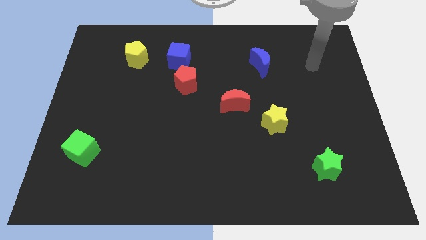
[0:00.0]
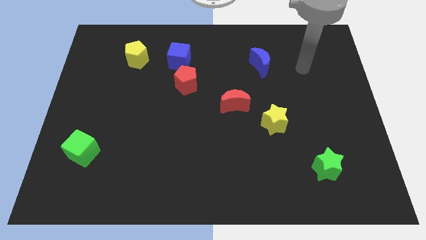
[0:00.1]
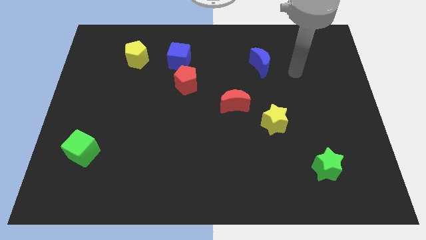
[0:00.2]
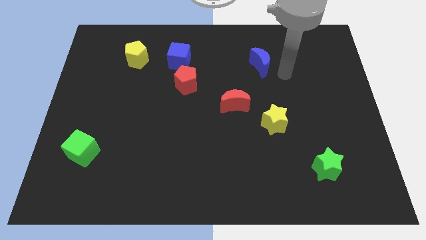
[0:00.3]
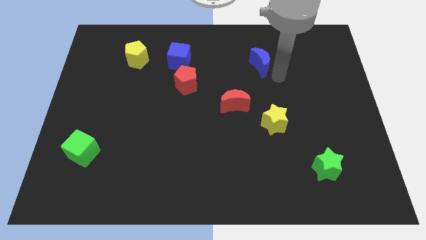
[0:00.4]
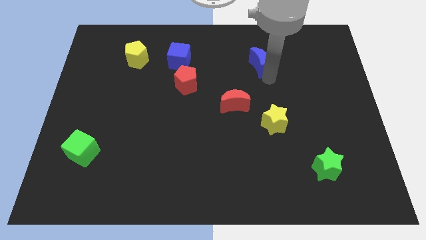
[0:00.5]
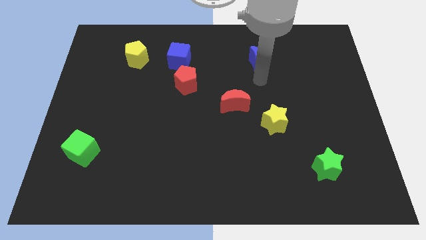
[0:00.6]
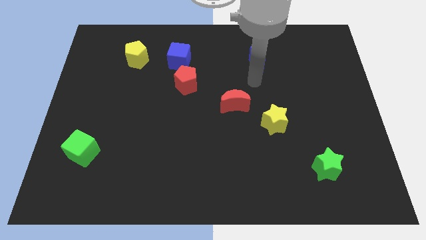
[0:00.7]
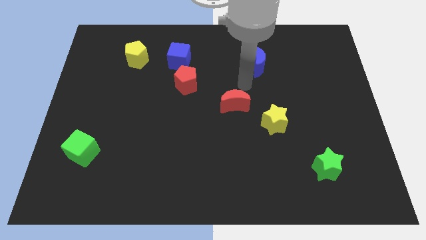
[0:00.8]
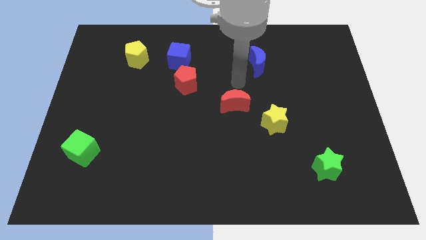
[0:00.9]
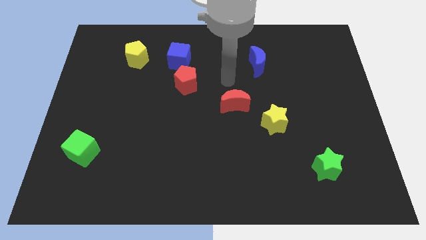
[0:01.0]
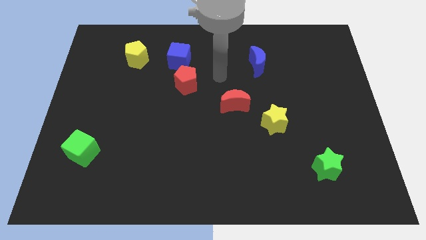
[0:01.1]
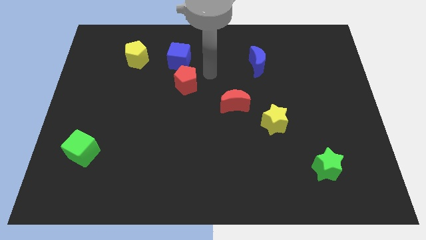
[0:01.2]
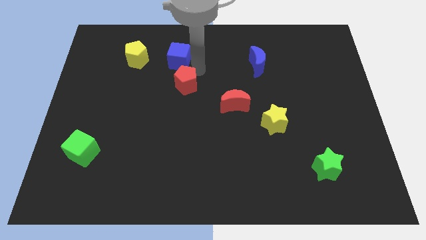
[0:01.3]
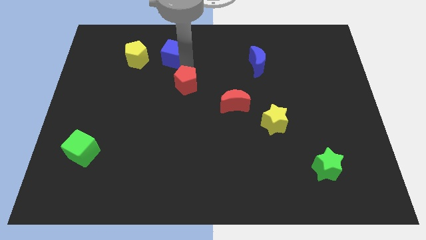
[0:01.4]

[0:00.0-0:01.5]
pull the red pentagon apart from the blue cube

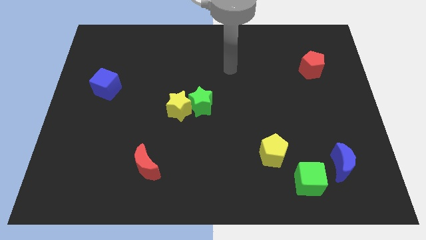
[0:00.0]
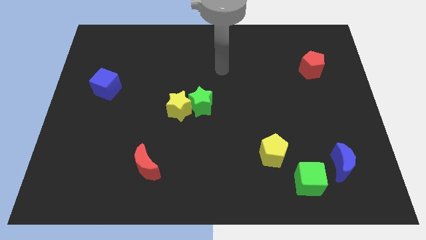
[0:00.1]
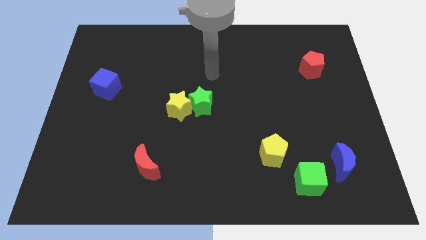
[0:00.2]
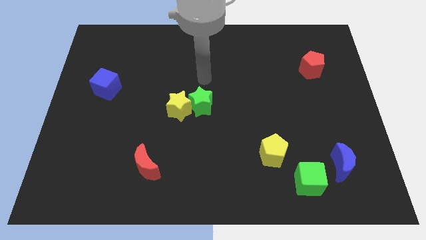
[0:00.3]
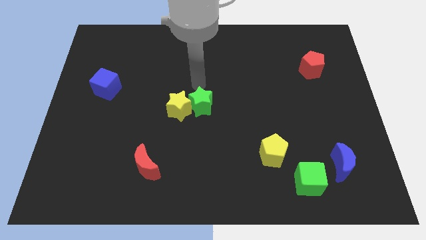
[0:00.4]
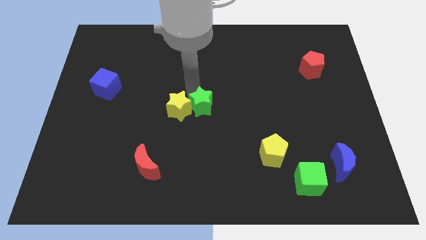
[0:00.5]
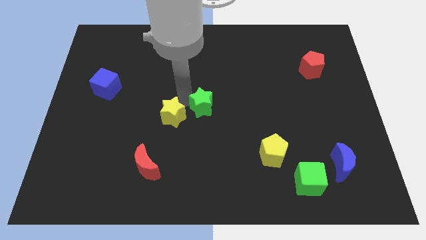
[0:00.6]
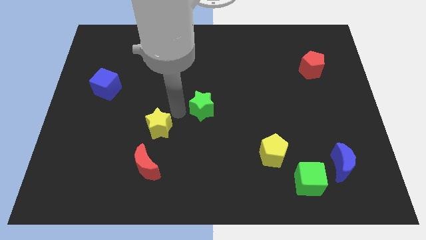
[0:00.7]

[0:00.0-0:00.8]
move the green star away from the yellow star

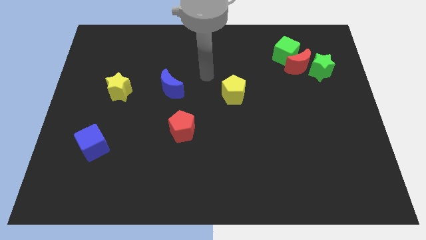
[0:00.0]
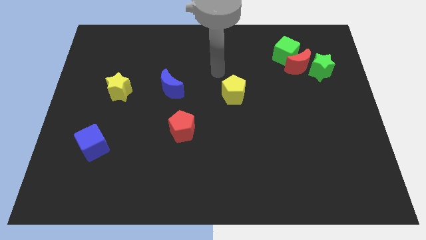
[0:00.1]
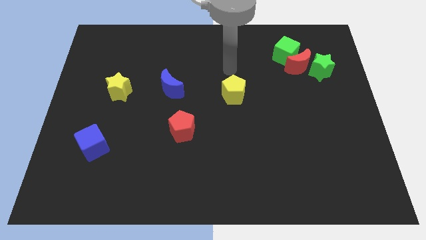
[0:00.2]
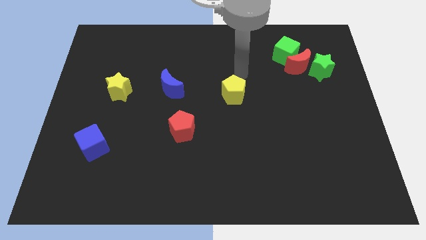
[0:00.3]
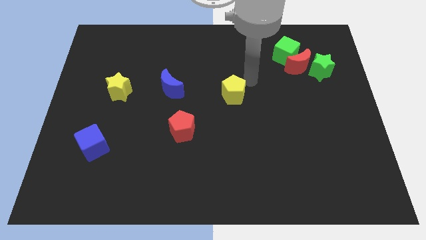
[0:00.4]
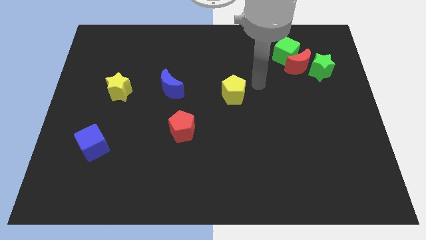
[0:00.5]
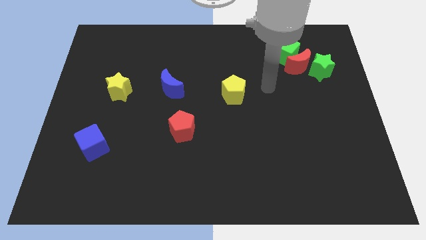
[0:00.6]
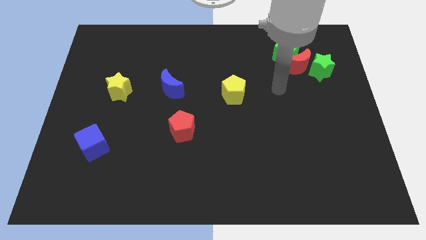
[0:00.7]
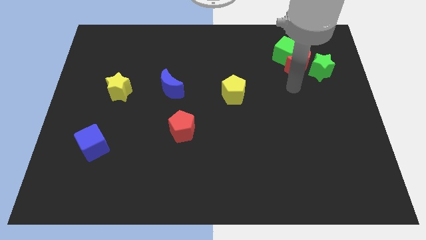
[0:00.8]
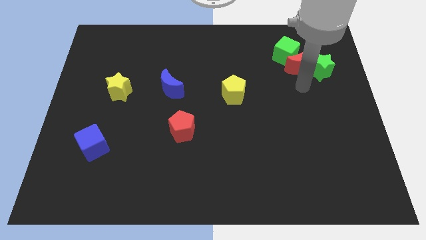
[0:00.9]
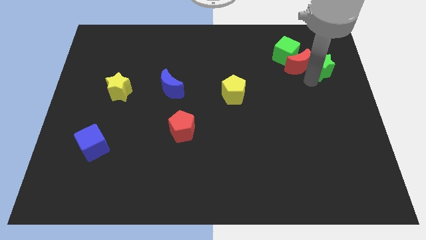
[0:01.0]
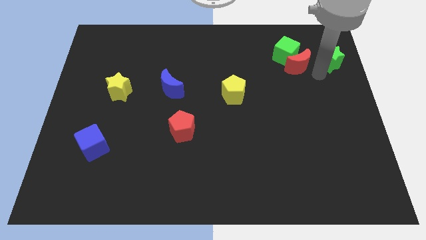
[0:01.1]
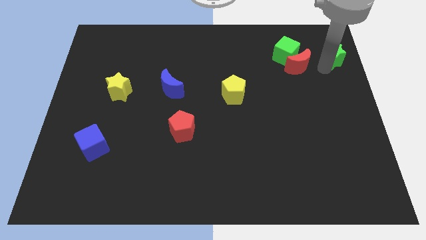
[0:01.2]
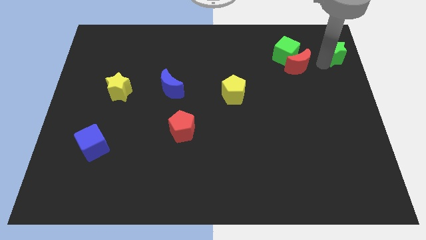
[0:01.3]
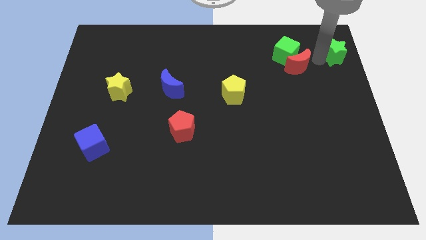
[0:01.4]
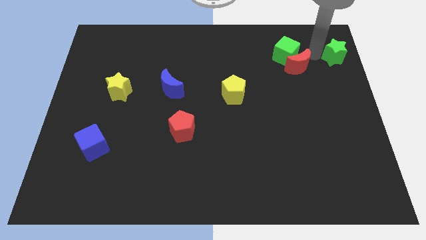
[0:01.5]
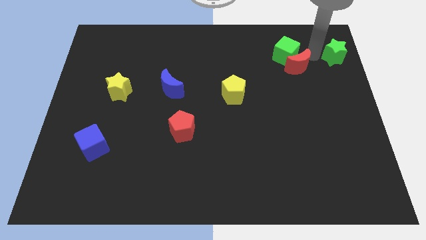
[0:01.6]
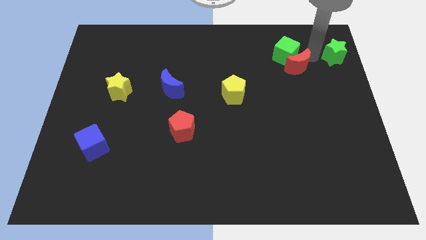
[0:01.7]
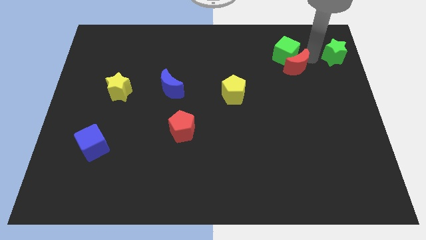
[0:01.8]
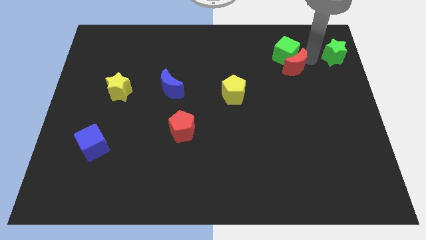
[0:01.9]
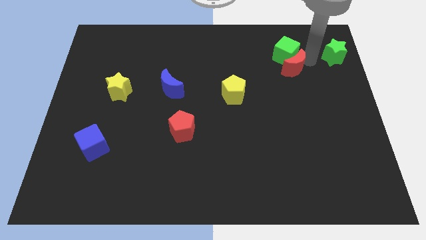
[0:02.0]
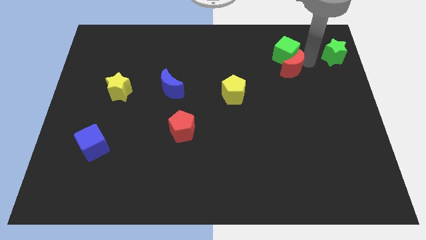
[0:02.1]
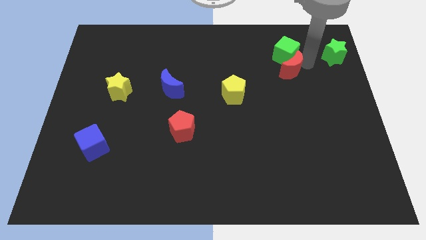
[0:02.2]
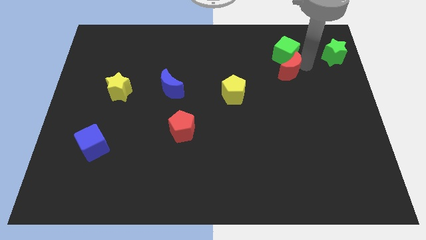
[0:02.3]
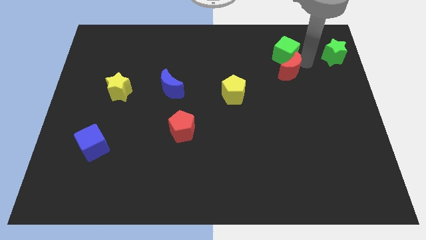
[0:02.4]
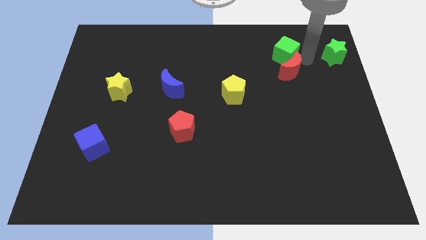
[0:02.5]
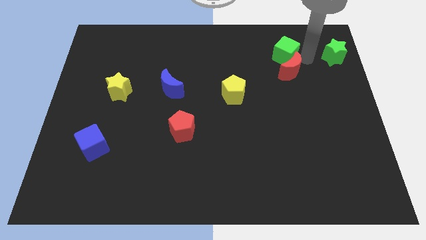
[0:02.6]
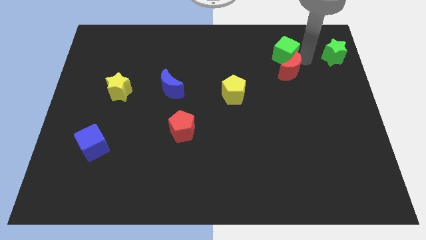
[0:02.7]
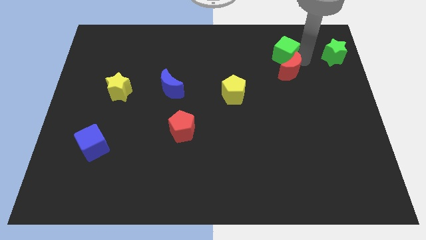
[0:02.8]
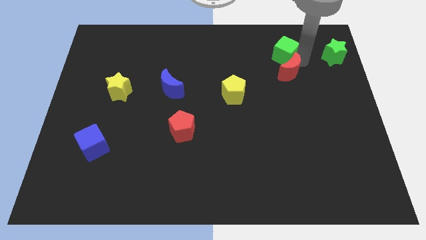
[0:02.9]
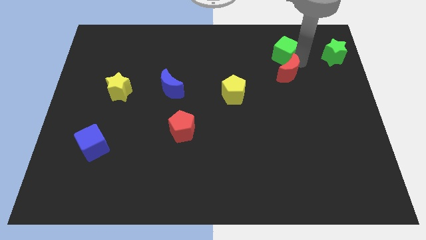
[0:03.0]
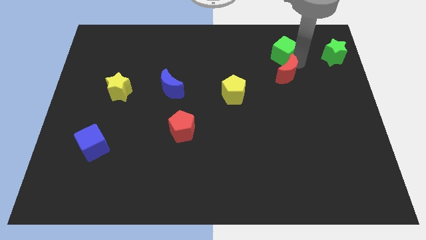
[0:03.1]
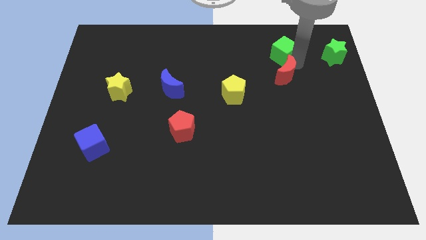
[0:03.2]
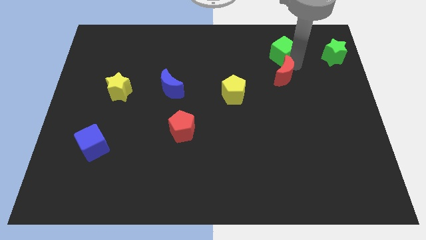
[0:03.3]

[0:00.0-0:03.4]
pull the red moon apart from the green cube and green star

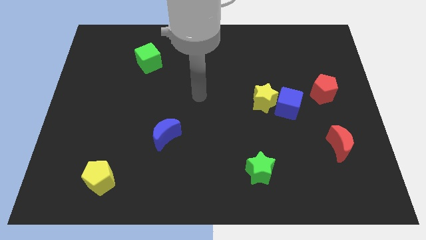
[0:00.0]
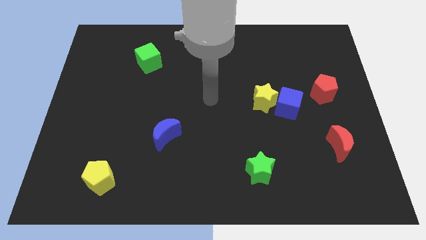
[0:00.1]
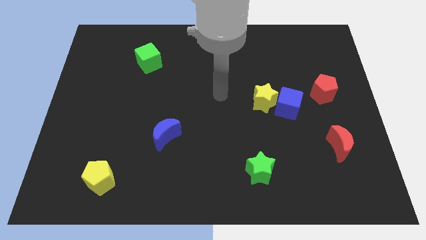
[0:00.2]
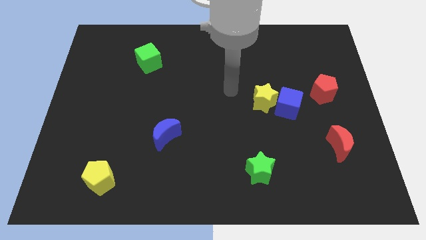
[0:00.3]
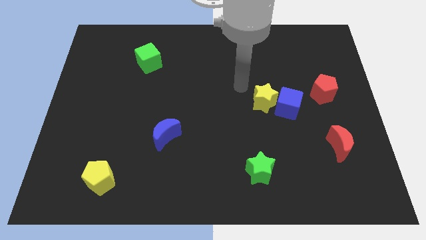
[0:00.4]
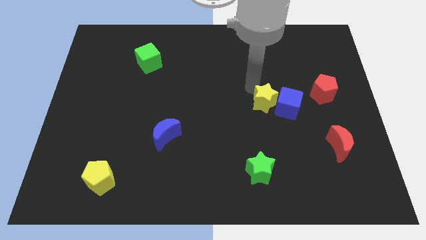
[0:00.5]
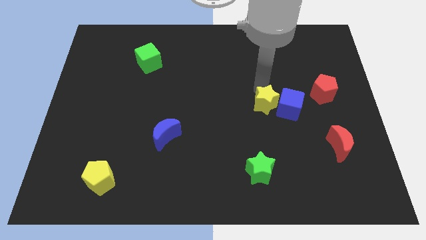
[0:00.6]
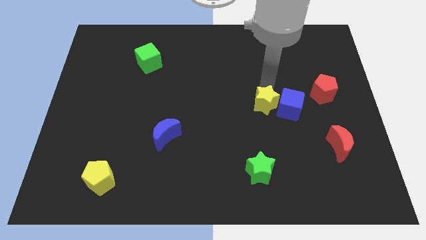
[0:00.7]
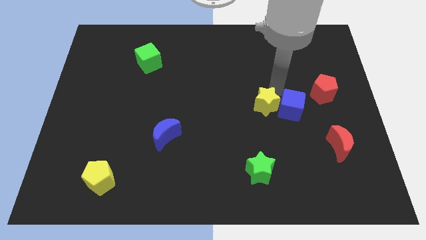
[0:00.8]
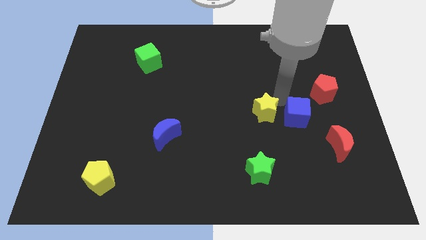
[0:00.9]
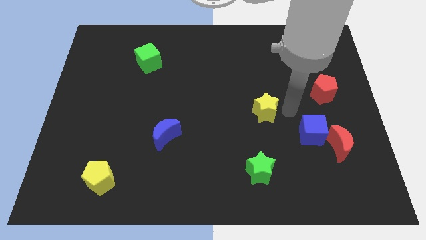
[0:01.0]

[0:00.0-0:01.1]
move the yellow star away from the blue cube

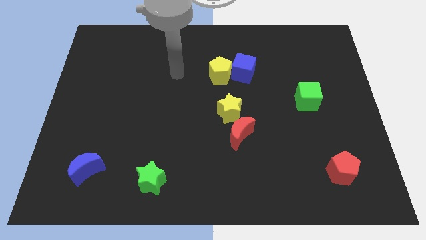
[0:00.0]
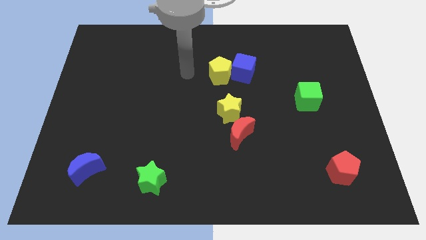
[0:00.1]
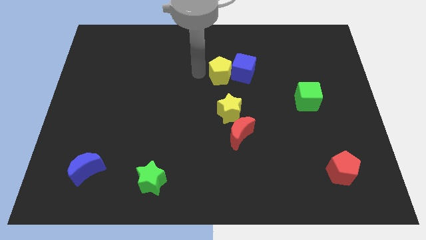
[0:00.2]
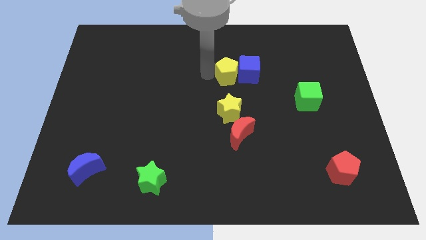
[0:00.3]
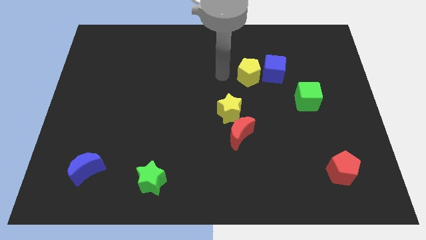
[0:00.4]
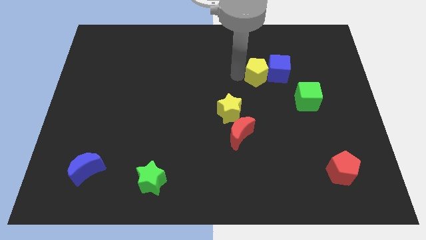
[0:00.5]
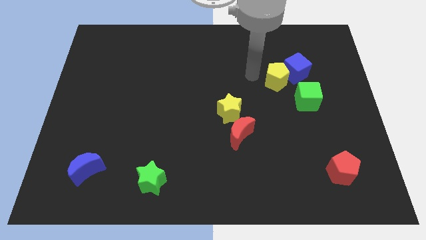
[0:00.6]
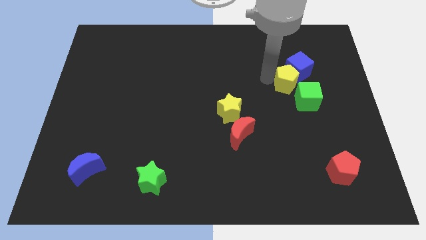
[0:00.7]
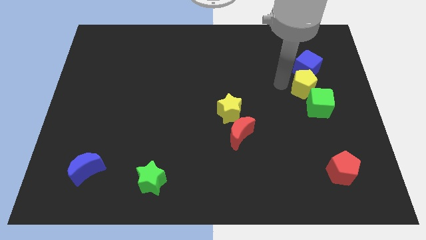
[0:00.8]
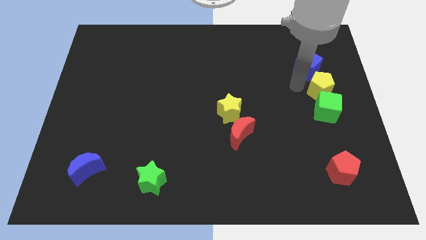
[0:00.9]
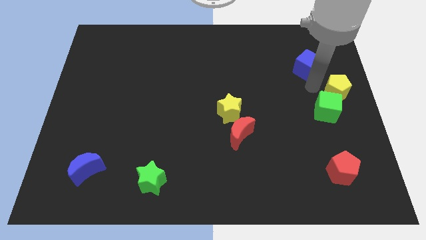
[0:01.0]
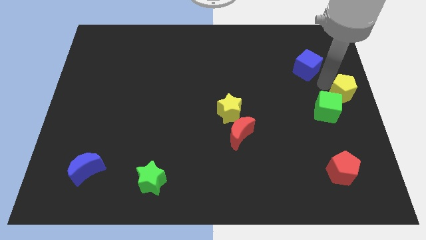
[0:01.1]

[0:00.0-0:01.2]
separate the blue cube from the yellow pentagon

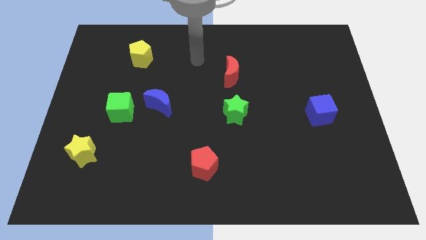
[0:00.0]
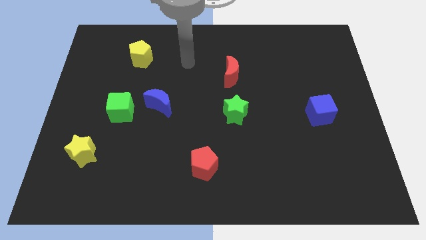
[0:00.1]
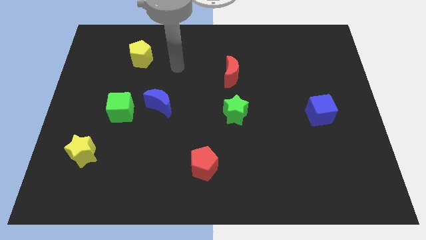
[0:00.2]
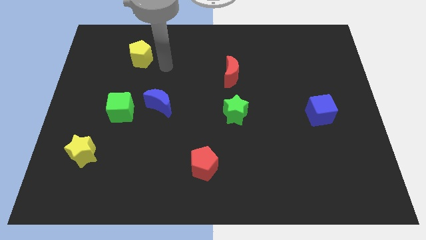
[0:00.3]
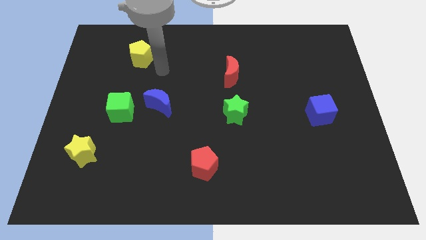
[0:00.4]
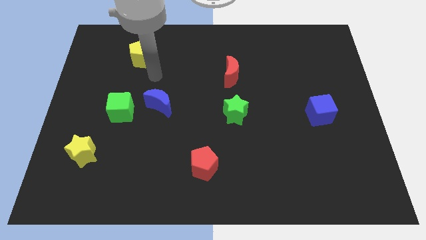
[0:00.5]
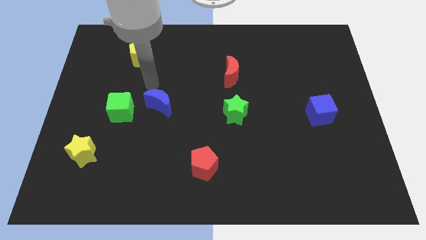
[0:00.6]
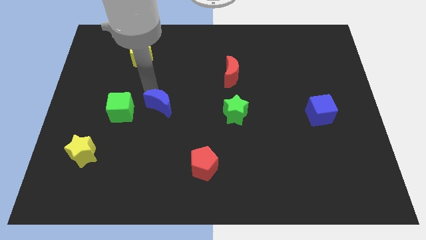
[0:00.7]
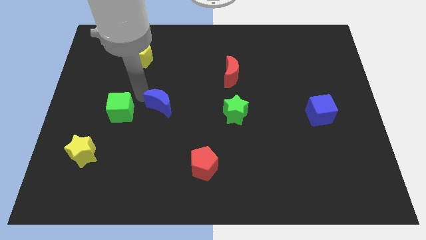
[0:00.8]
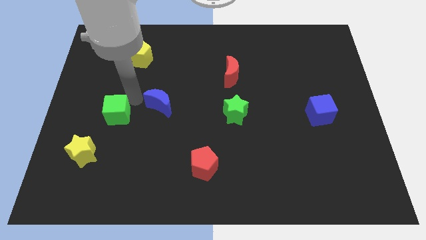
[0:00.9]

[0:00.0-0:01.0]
separate the blue moon from the green cube

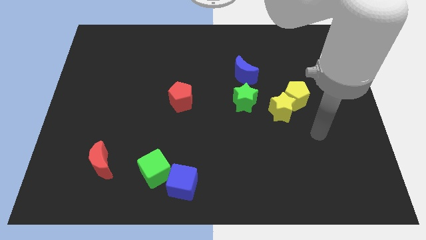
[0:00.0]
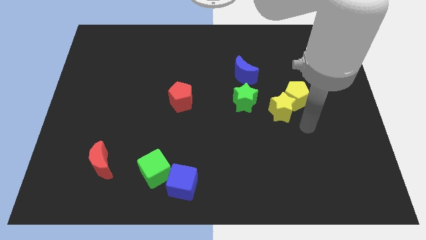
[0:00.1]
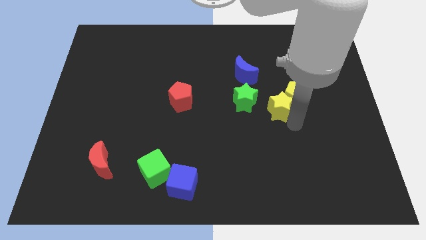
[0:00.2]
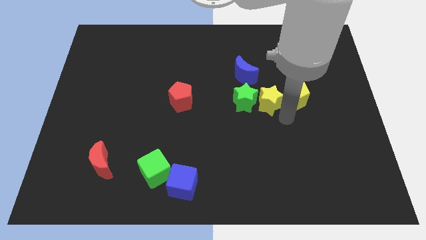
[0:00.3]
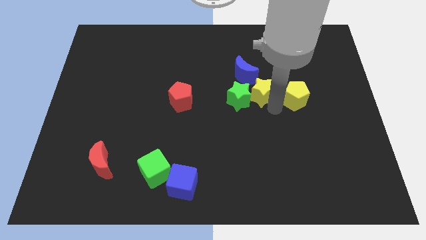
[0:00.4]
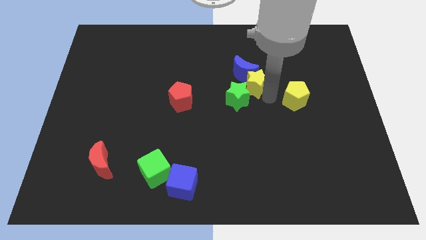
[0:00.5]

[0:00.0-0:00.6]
move the yellow pentagon away from the yellow star
